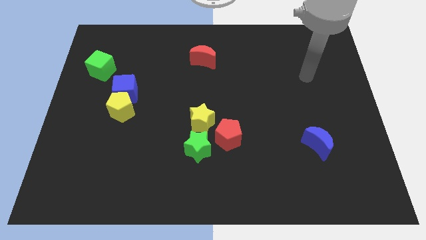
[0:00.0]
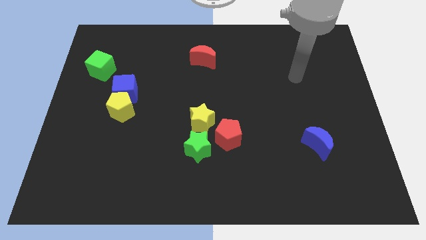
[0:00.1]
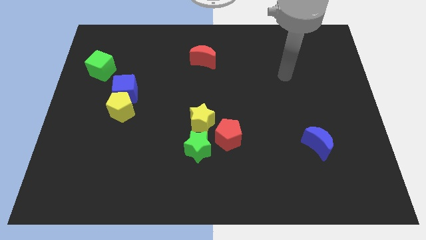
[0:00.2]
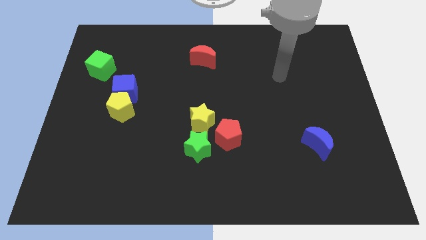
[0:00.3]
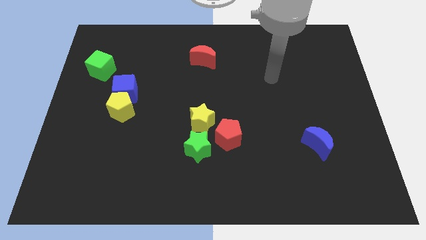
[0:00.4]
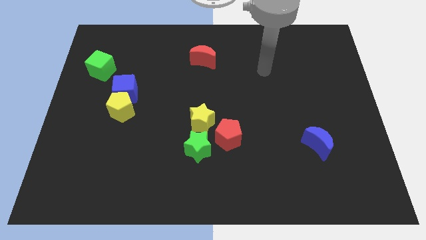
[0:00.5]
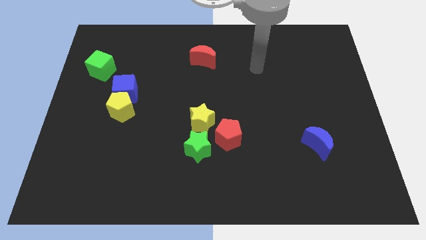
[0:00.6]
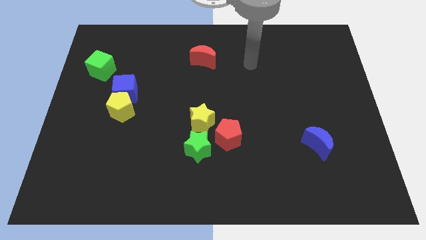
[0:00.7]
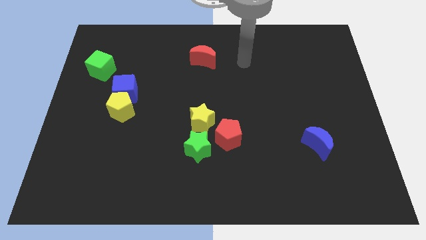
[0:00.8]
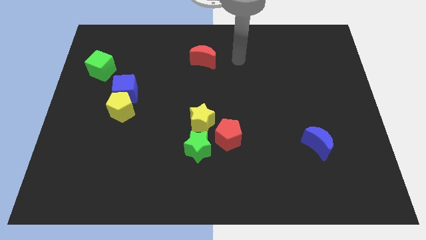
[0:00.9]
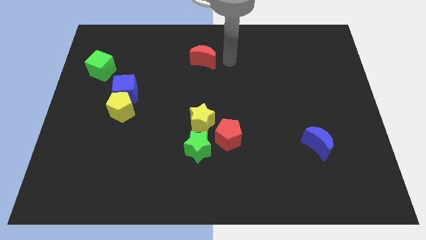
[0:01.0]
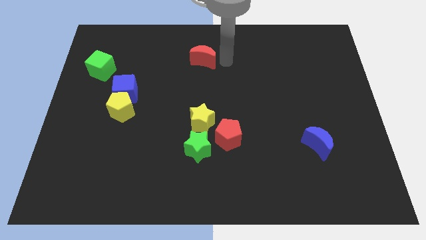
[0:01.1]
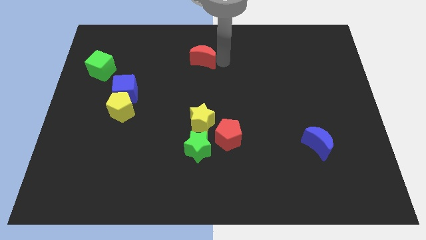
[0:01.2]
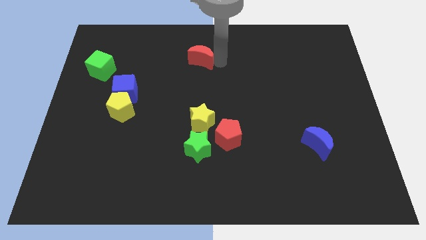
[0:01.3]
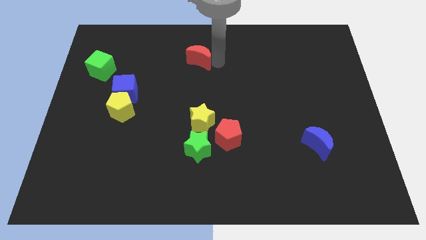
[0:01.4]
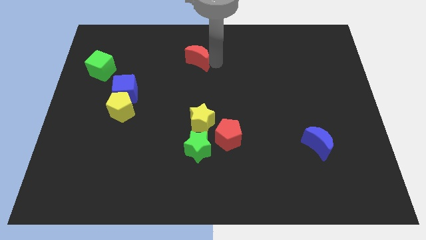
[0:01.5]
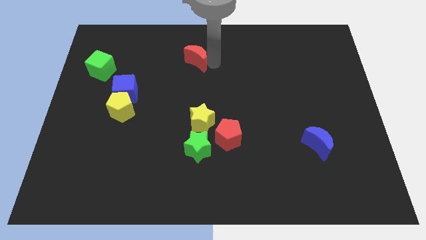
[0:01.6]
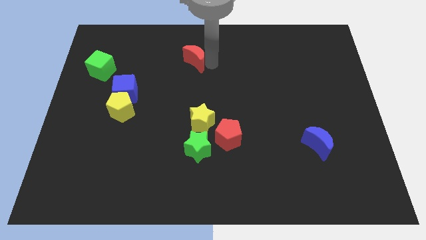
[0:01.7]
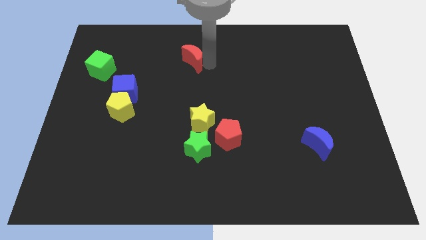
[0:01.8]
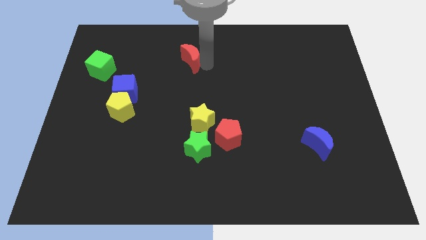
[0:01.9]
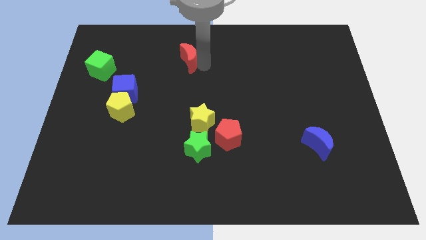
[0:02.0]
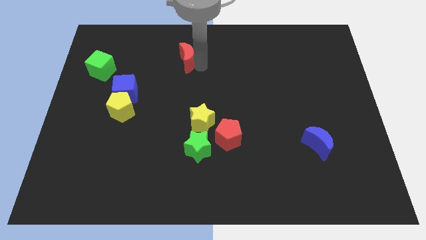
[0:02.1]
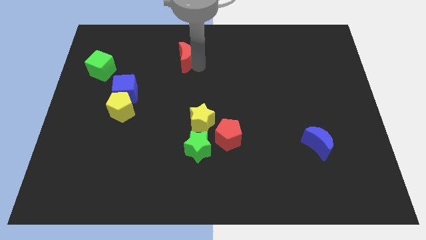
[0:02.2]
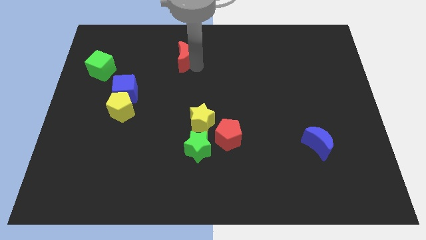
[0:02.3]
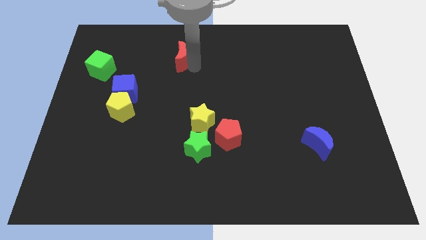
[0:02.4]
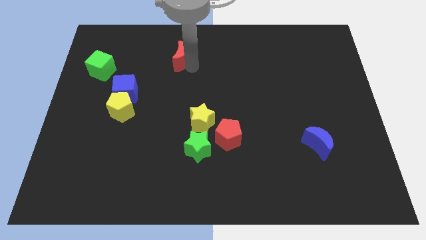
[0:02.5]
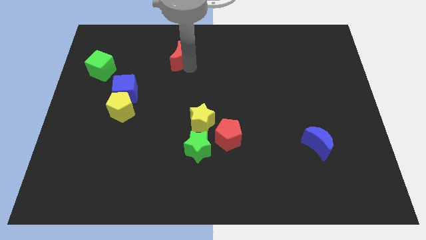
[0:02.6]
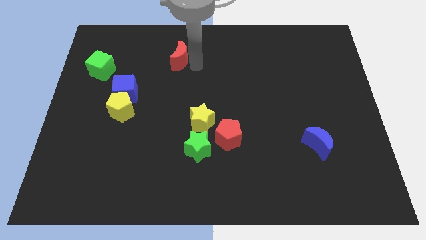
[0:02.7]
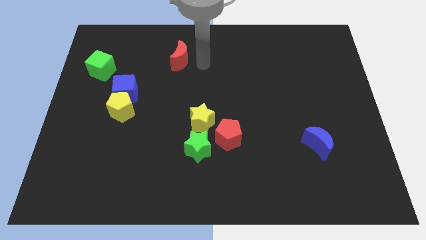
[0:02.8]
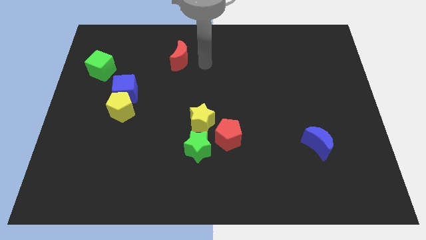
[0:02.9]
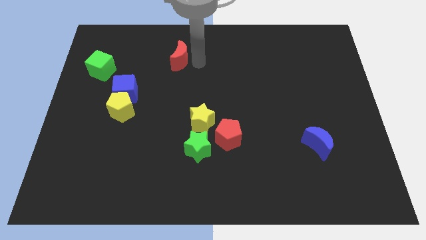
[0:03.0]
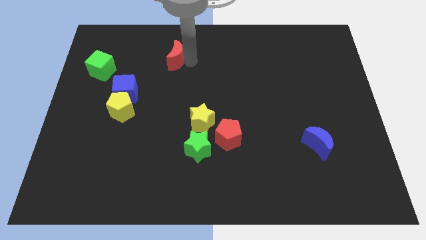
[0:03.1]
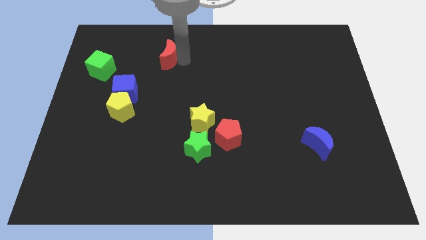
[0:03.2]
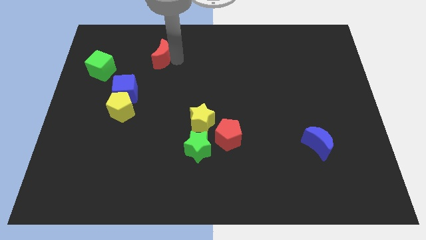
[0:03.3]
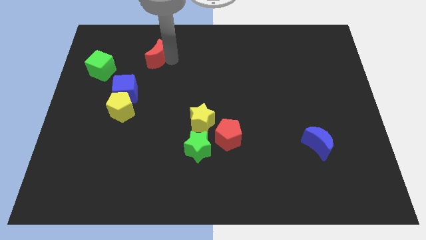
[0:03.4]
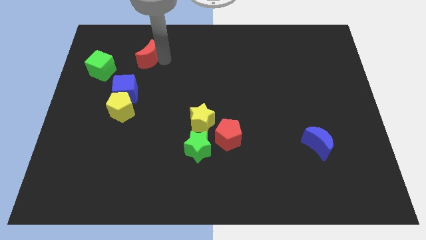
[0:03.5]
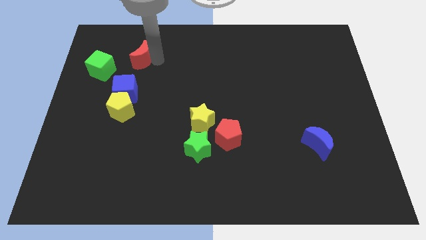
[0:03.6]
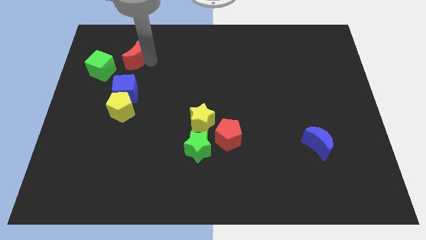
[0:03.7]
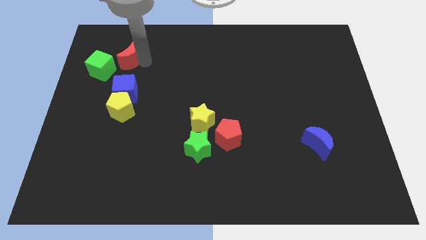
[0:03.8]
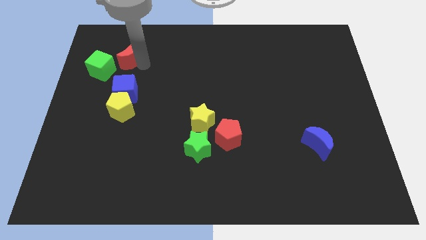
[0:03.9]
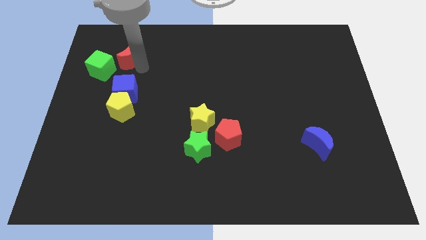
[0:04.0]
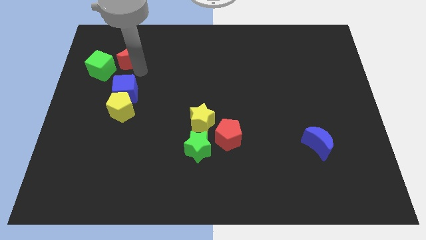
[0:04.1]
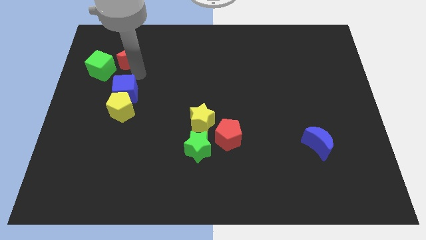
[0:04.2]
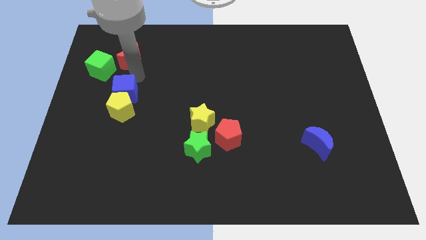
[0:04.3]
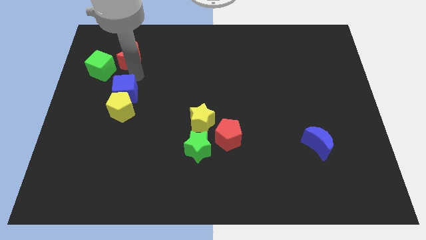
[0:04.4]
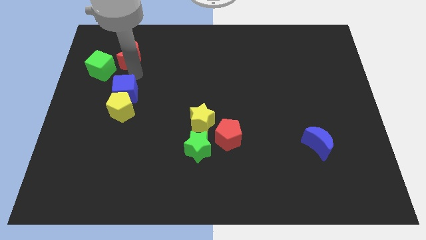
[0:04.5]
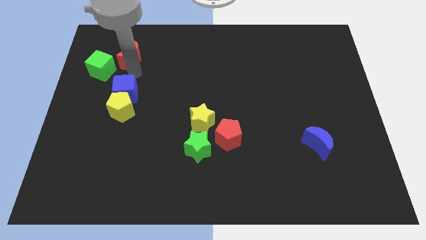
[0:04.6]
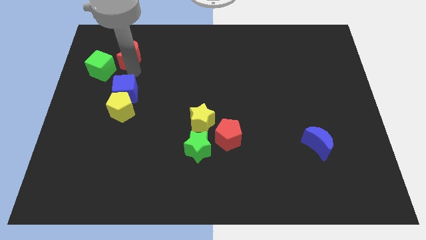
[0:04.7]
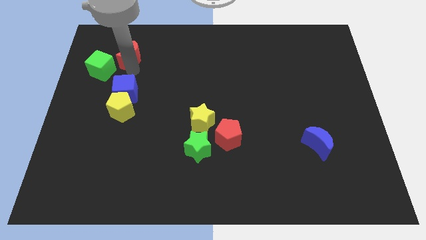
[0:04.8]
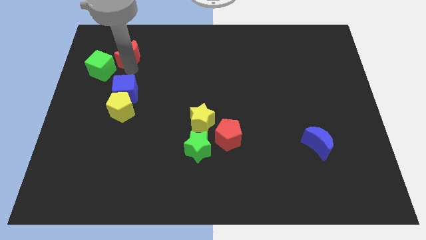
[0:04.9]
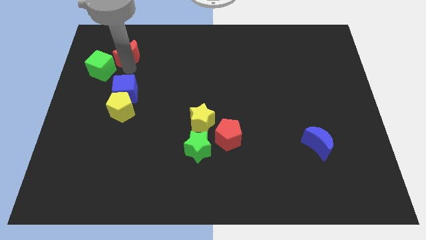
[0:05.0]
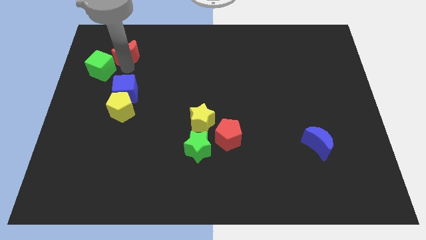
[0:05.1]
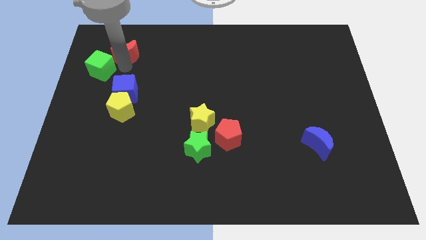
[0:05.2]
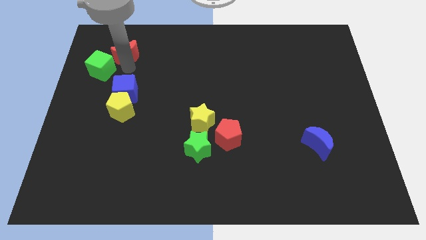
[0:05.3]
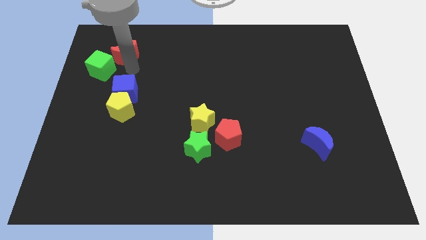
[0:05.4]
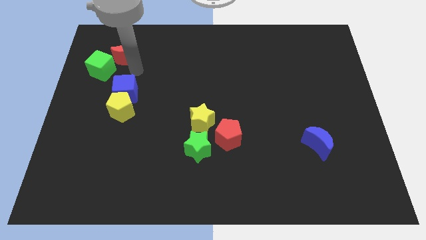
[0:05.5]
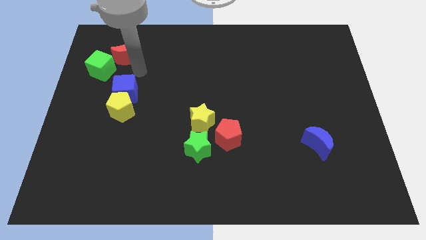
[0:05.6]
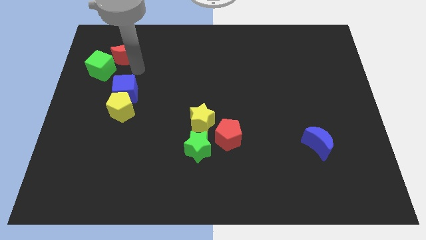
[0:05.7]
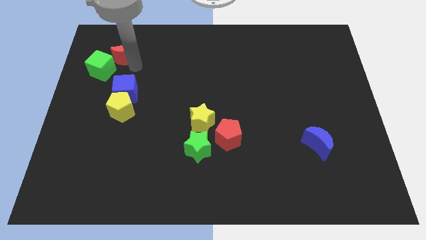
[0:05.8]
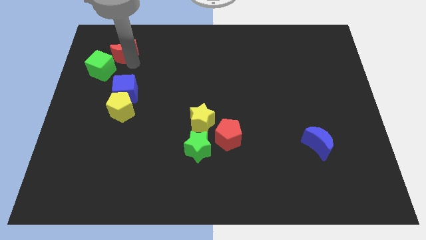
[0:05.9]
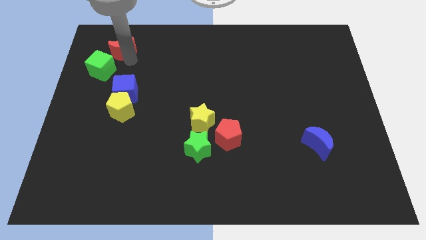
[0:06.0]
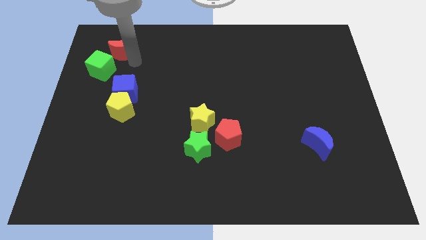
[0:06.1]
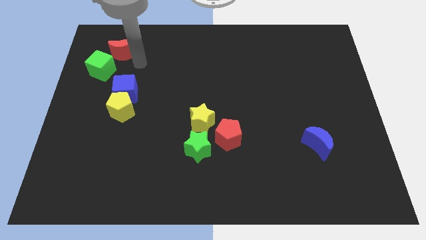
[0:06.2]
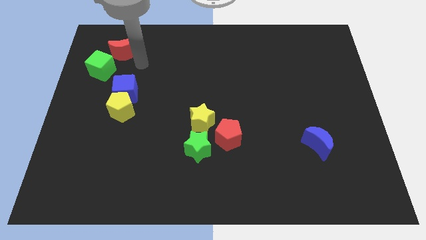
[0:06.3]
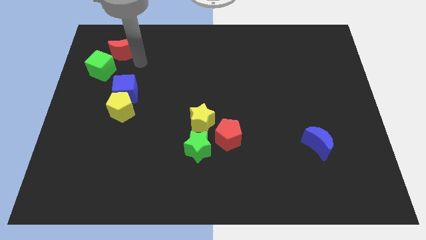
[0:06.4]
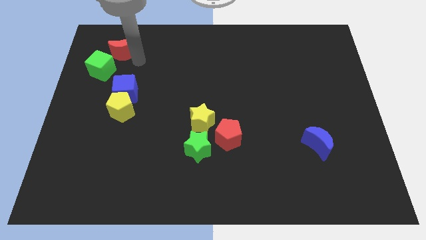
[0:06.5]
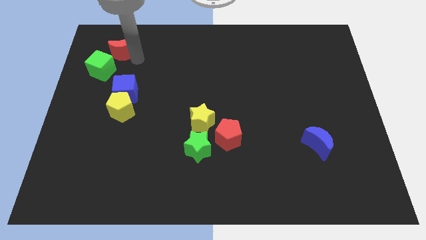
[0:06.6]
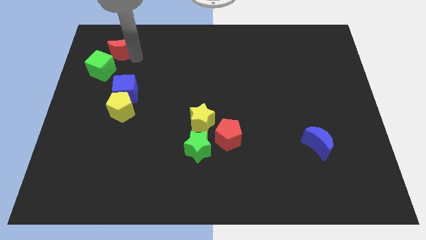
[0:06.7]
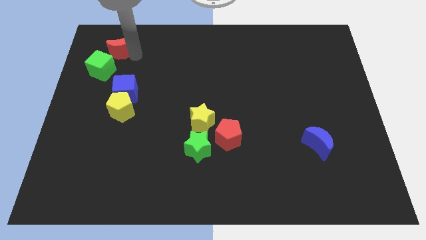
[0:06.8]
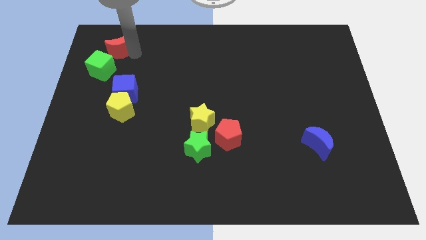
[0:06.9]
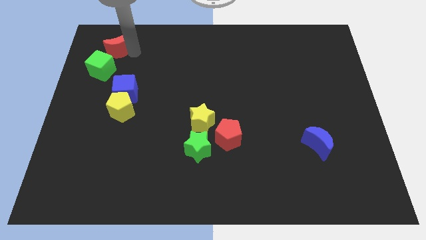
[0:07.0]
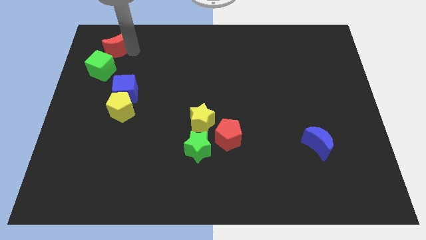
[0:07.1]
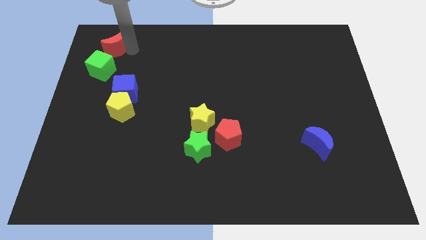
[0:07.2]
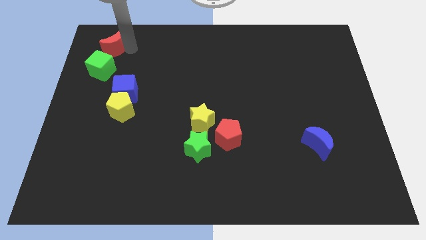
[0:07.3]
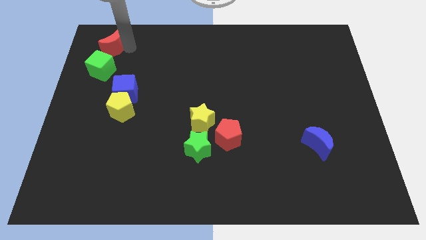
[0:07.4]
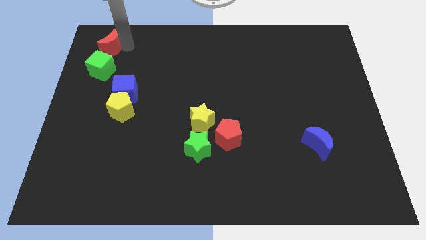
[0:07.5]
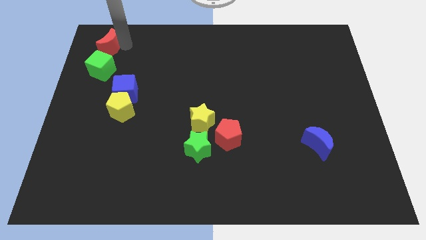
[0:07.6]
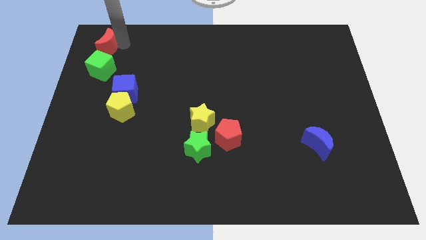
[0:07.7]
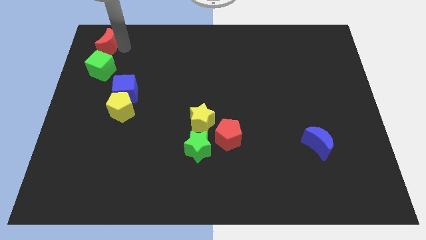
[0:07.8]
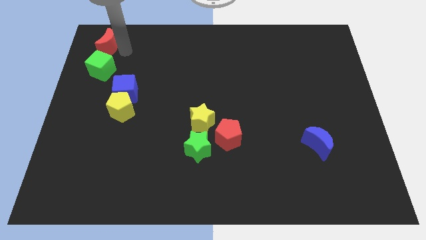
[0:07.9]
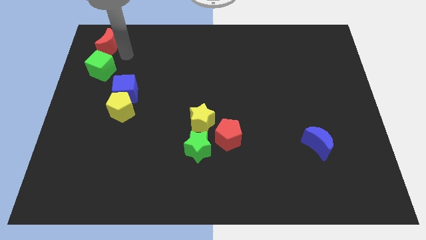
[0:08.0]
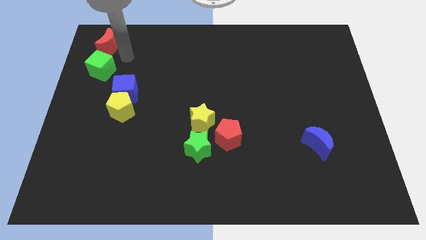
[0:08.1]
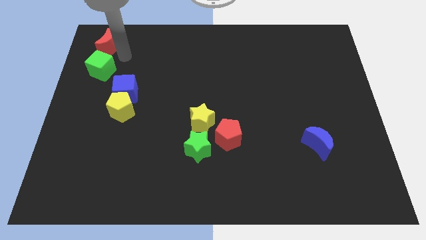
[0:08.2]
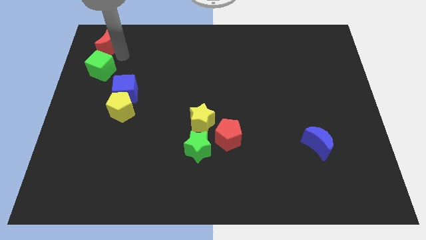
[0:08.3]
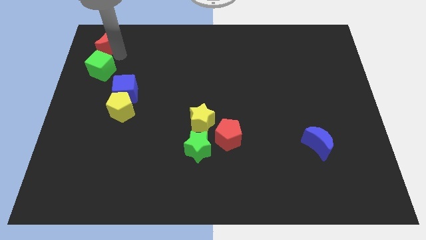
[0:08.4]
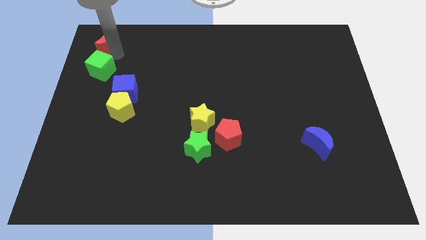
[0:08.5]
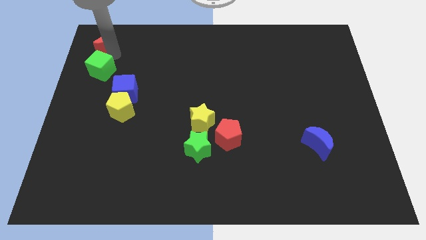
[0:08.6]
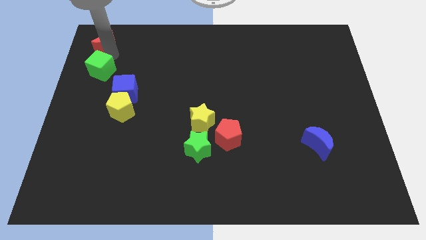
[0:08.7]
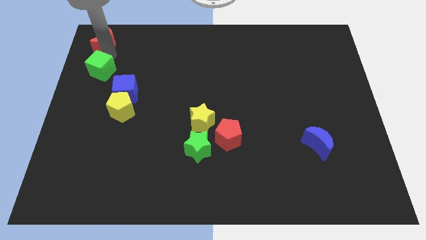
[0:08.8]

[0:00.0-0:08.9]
move the red moon to the upper left corner
